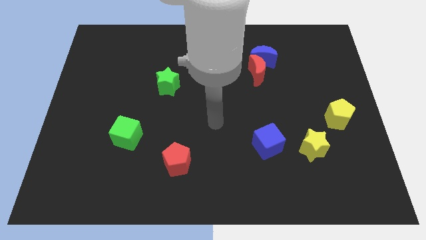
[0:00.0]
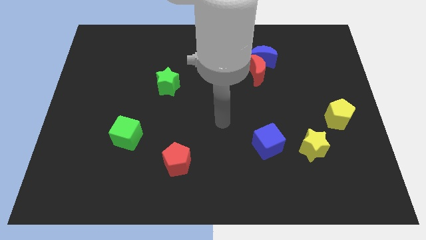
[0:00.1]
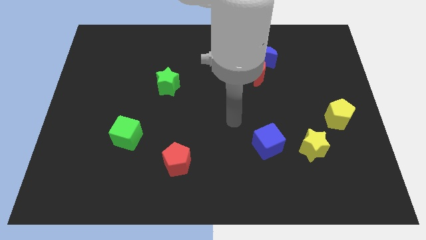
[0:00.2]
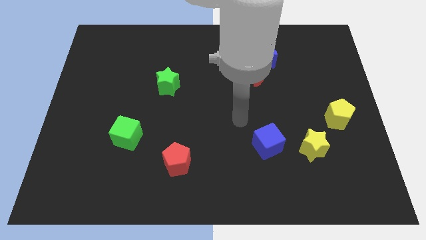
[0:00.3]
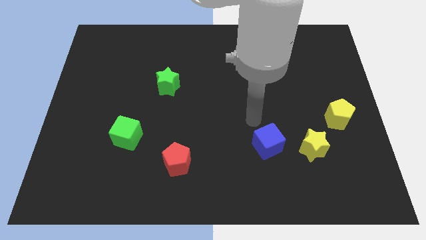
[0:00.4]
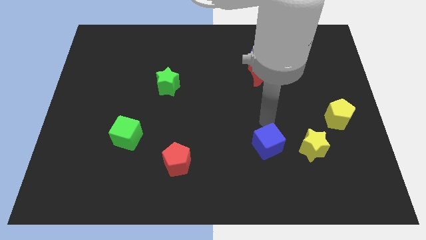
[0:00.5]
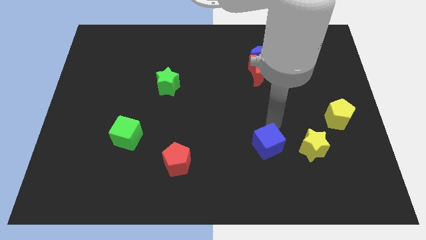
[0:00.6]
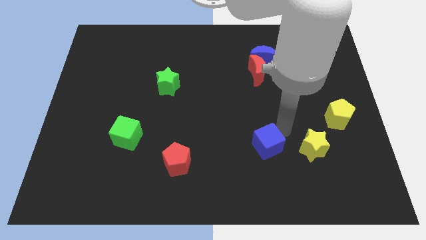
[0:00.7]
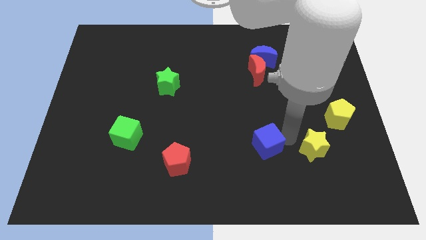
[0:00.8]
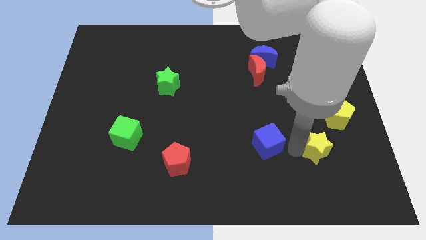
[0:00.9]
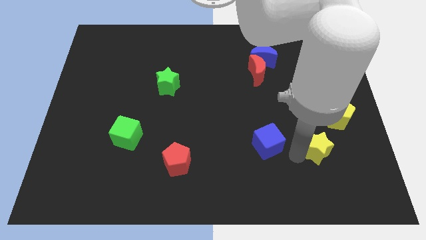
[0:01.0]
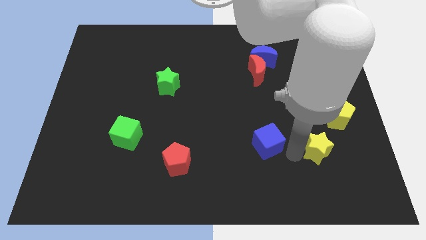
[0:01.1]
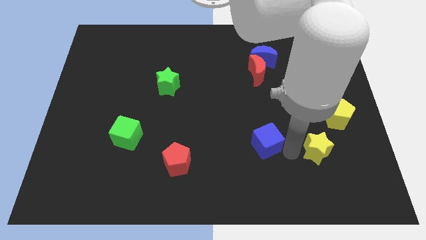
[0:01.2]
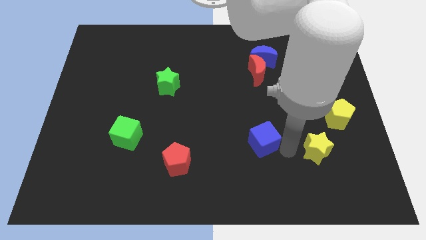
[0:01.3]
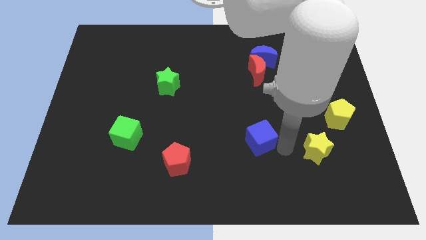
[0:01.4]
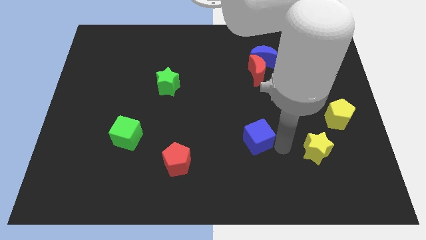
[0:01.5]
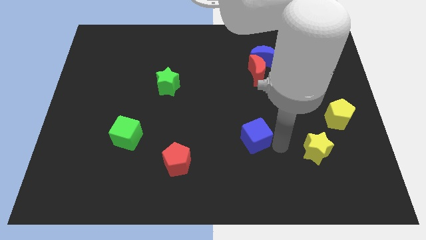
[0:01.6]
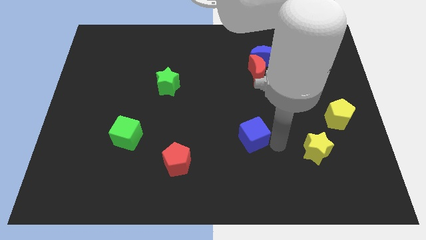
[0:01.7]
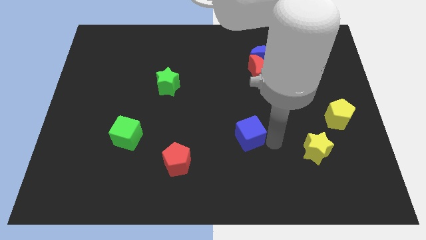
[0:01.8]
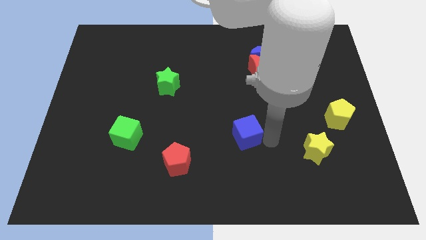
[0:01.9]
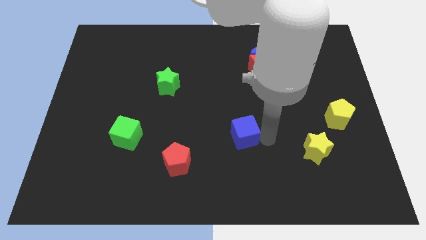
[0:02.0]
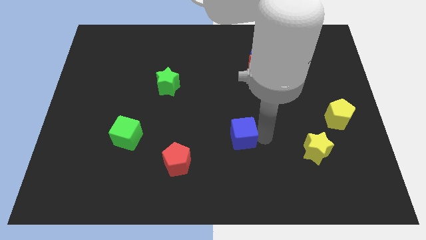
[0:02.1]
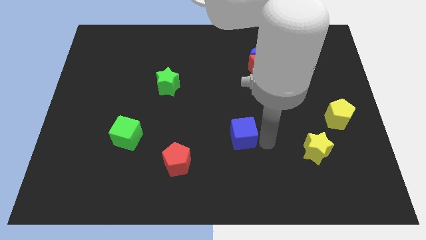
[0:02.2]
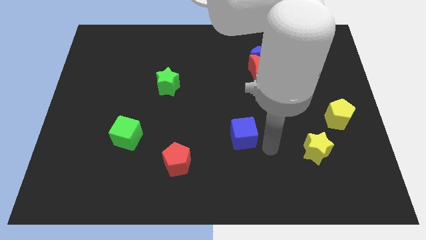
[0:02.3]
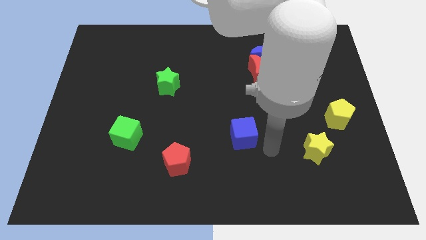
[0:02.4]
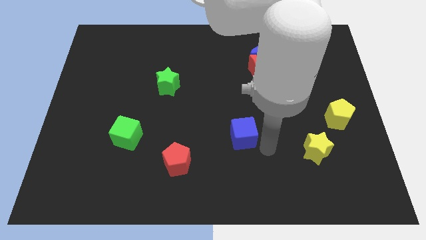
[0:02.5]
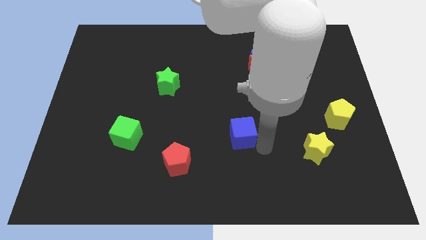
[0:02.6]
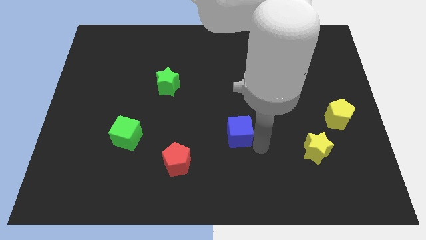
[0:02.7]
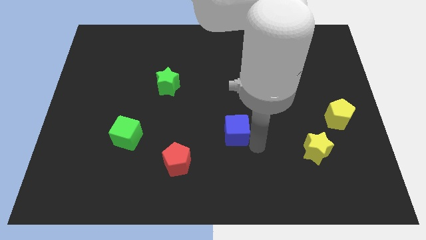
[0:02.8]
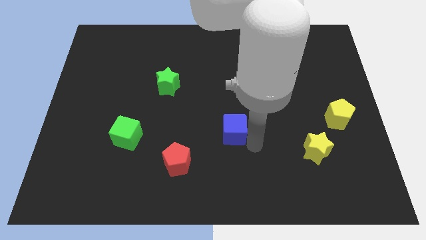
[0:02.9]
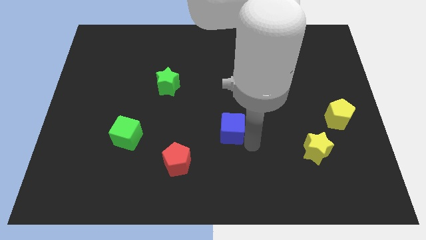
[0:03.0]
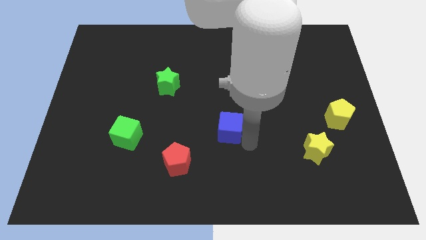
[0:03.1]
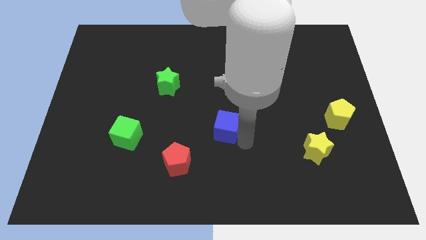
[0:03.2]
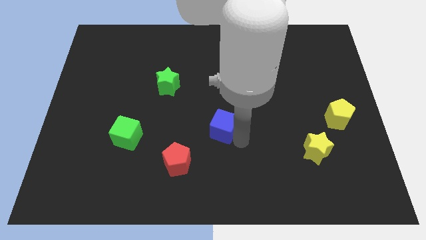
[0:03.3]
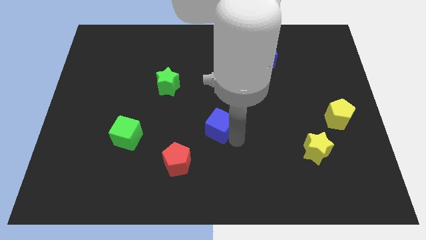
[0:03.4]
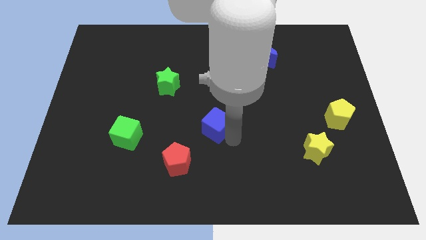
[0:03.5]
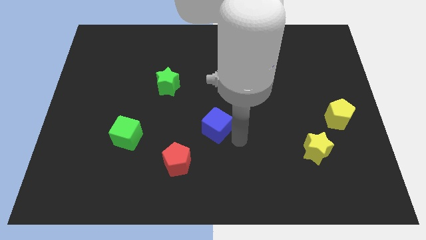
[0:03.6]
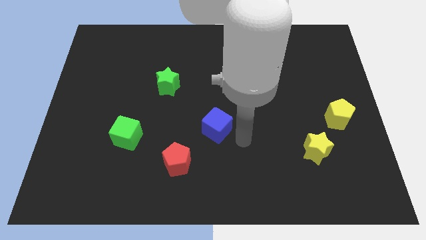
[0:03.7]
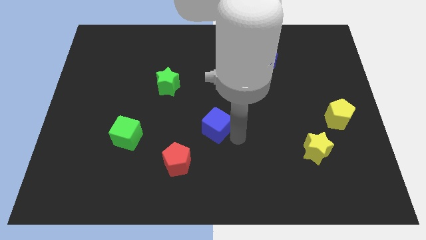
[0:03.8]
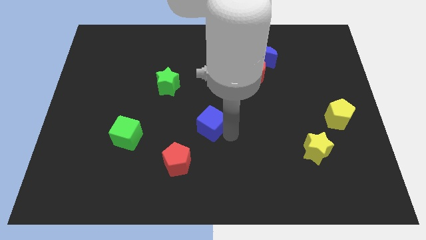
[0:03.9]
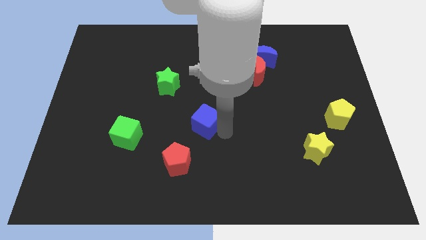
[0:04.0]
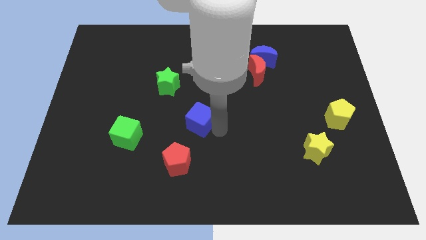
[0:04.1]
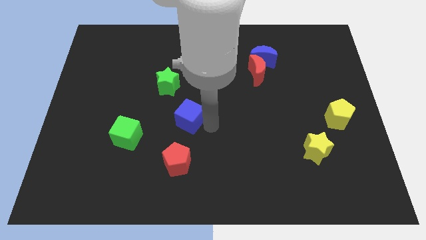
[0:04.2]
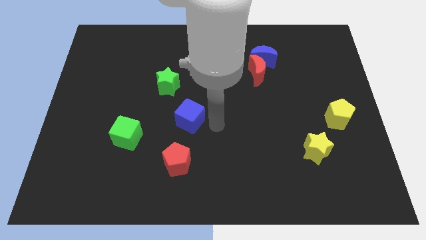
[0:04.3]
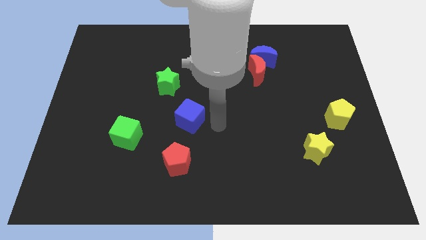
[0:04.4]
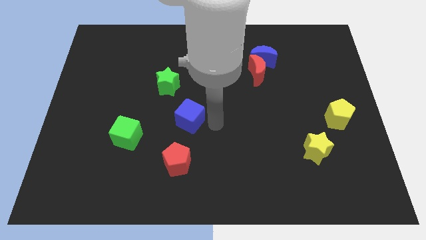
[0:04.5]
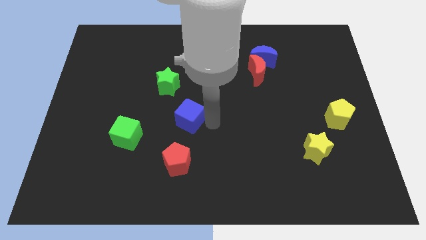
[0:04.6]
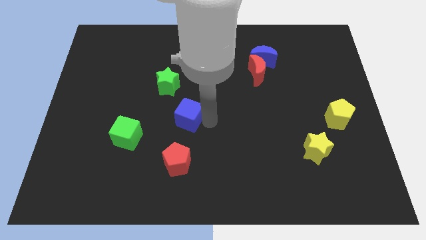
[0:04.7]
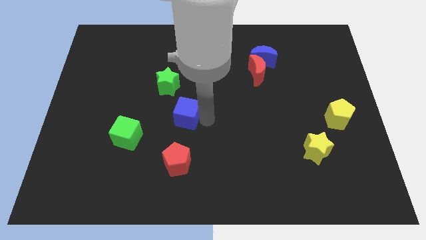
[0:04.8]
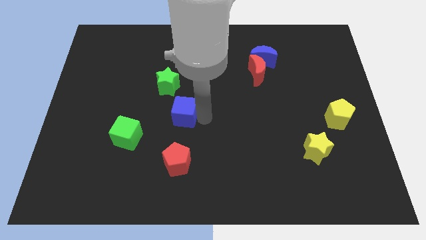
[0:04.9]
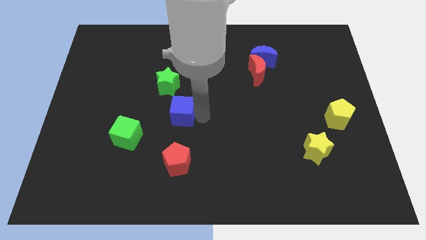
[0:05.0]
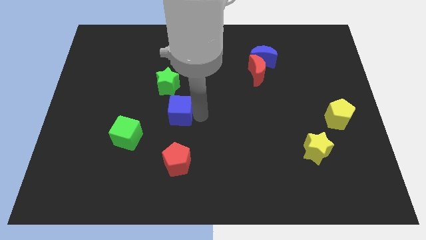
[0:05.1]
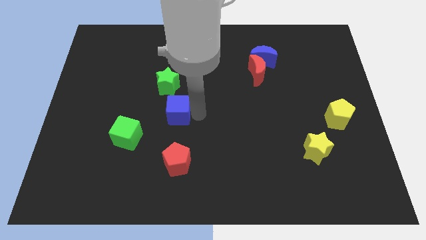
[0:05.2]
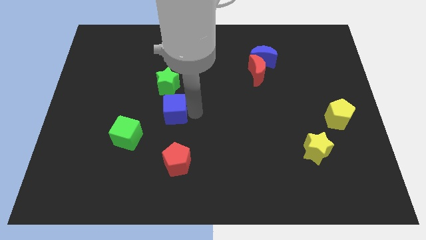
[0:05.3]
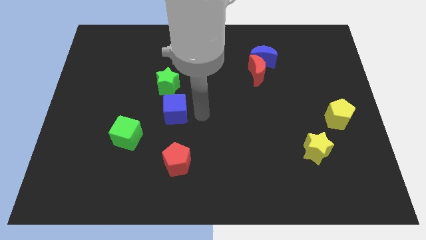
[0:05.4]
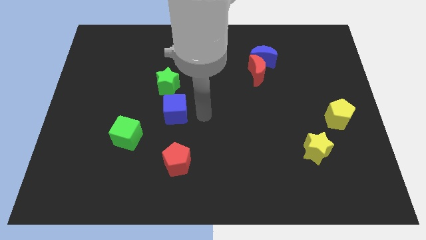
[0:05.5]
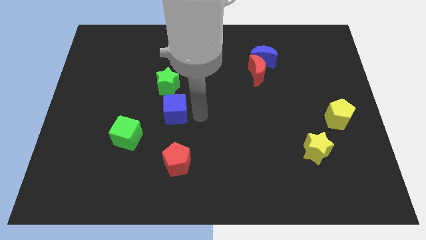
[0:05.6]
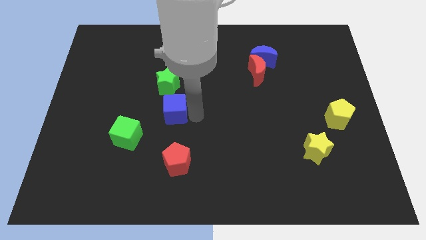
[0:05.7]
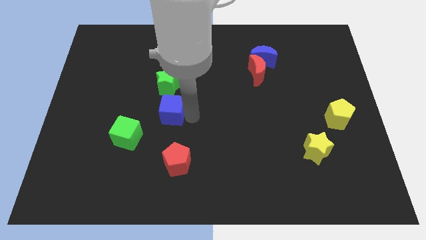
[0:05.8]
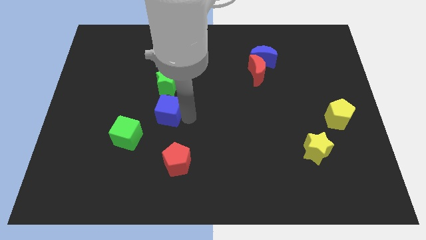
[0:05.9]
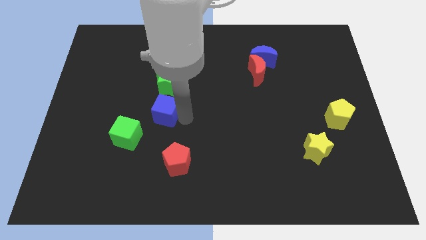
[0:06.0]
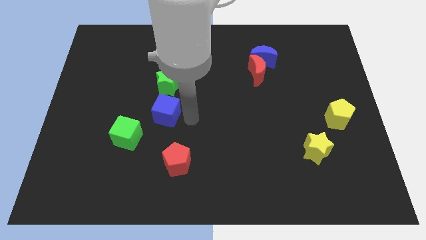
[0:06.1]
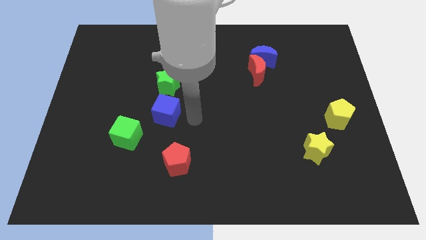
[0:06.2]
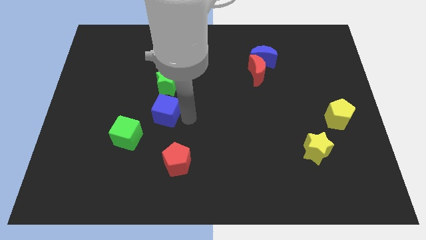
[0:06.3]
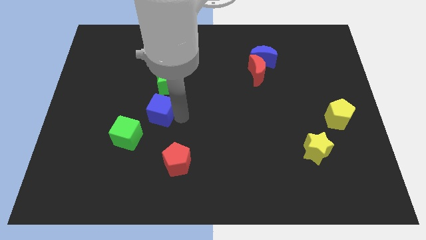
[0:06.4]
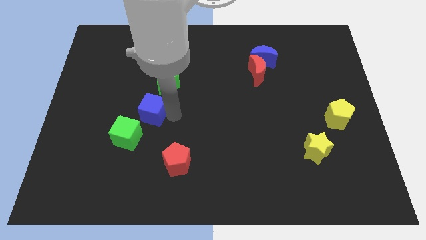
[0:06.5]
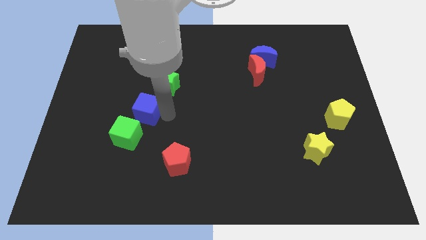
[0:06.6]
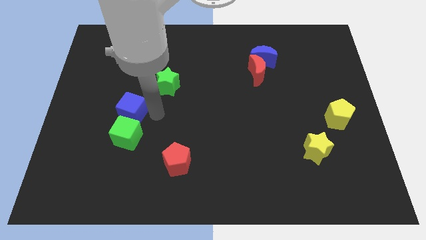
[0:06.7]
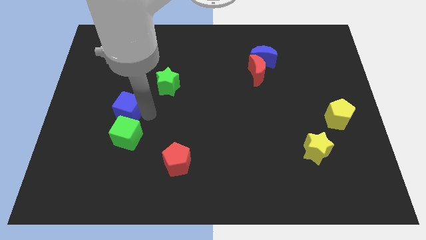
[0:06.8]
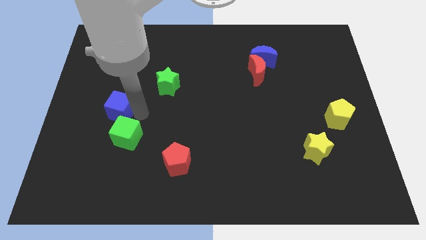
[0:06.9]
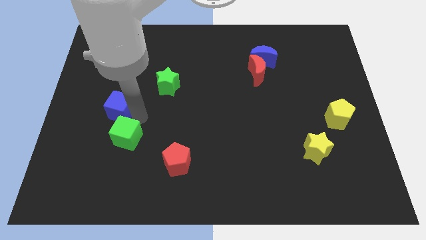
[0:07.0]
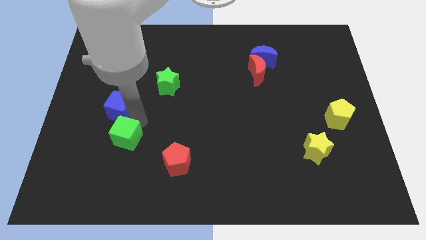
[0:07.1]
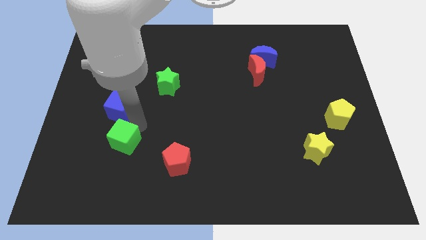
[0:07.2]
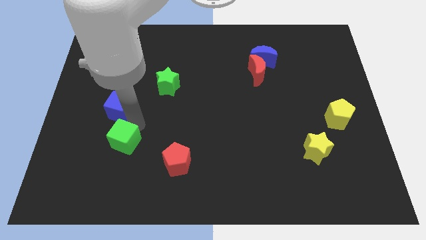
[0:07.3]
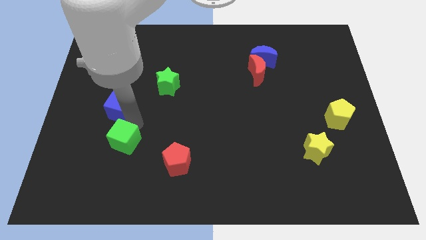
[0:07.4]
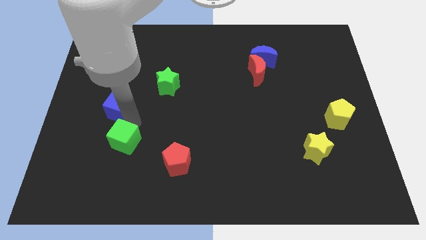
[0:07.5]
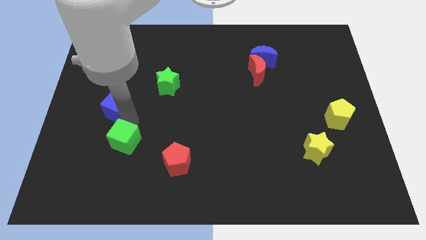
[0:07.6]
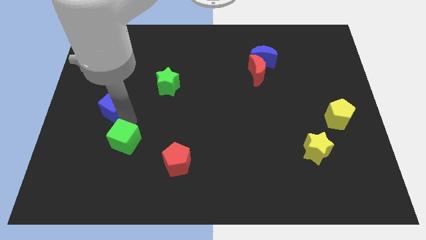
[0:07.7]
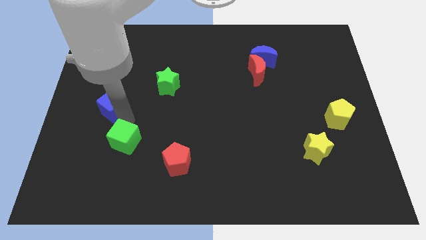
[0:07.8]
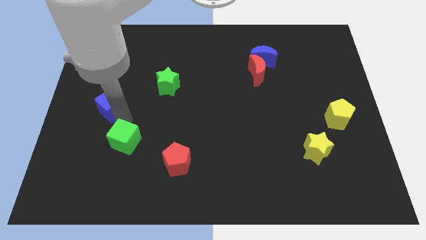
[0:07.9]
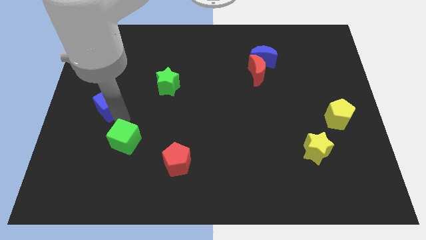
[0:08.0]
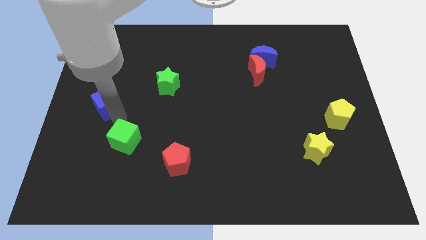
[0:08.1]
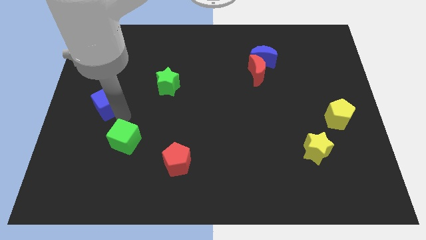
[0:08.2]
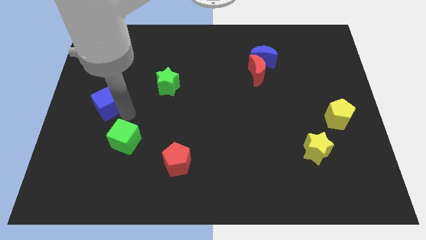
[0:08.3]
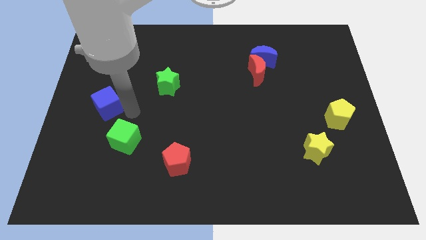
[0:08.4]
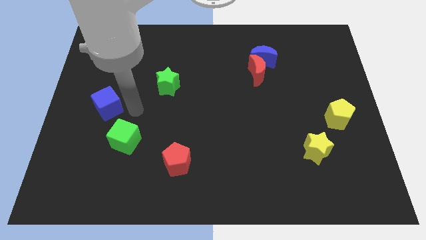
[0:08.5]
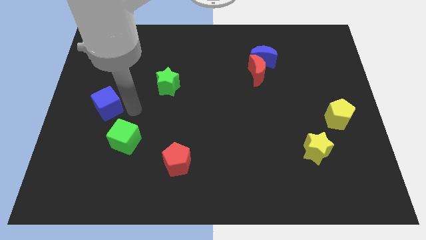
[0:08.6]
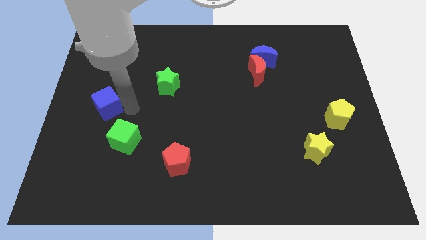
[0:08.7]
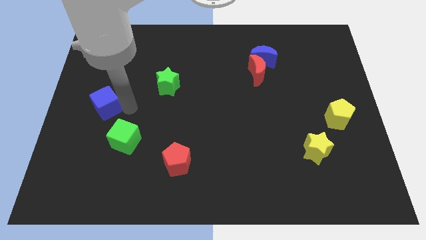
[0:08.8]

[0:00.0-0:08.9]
slide the blue cube to the left side of the board
